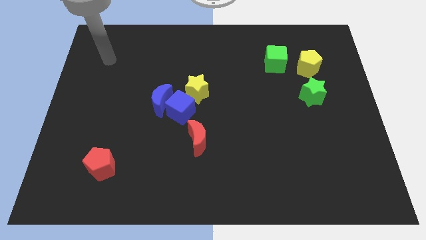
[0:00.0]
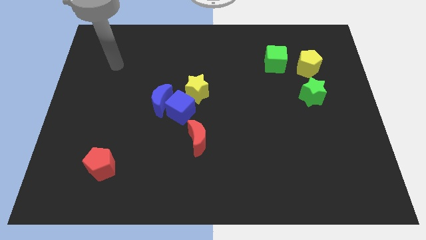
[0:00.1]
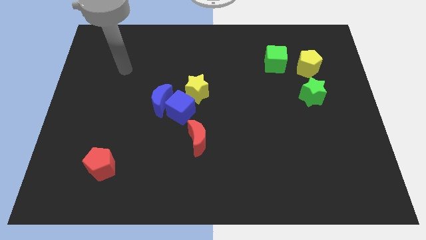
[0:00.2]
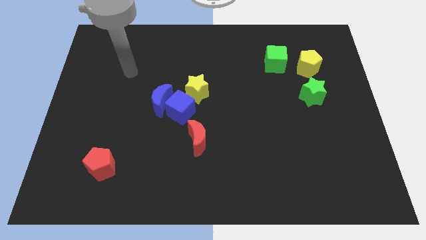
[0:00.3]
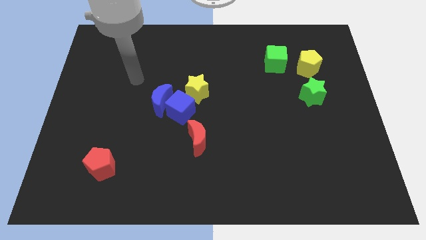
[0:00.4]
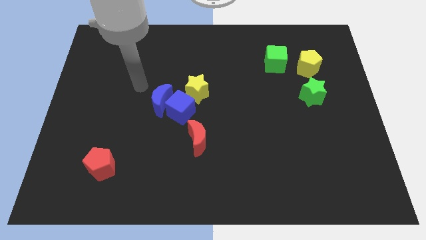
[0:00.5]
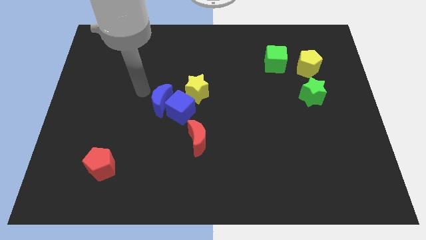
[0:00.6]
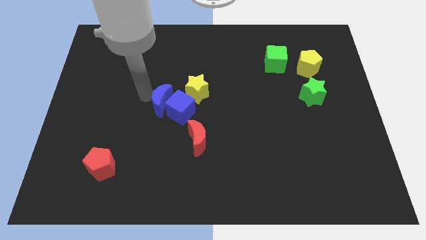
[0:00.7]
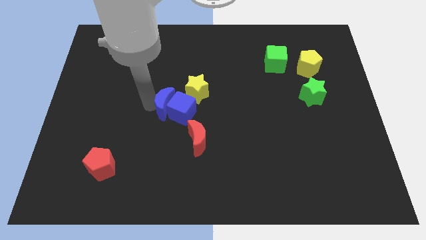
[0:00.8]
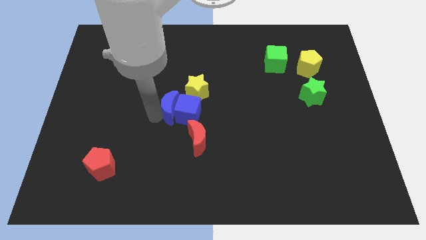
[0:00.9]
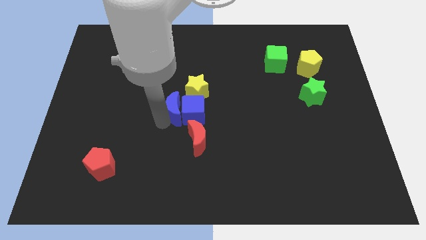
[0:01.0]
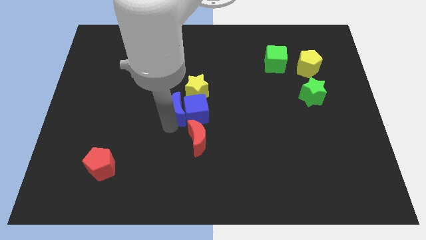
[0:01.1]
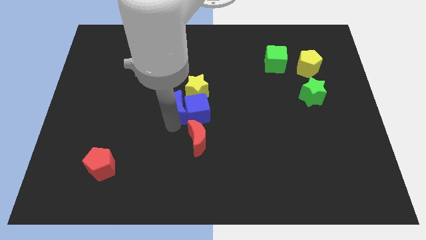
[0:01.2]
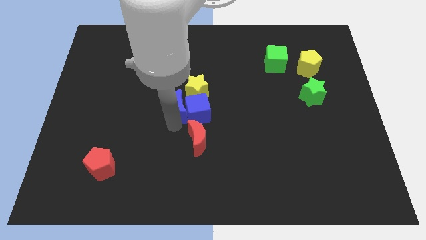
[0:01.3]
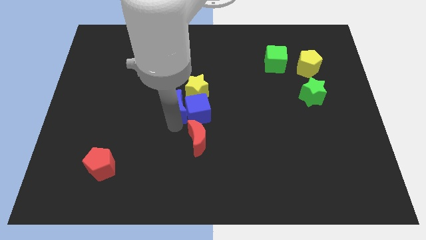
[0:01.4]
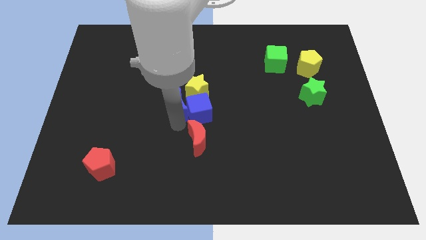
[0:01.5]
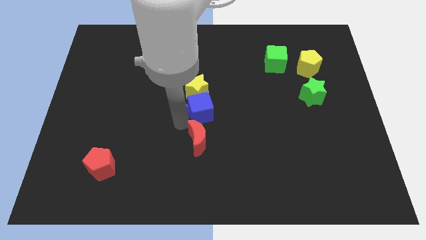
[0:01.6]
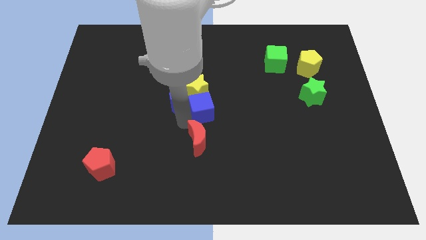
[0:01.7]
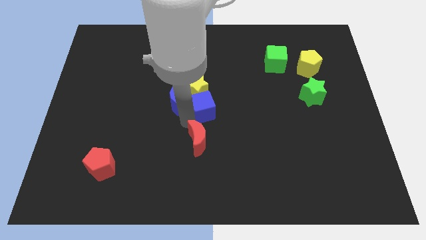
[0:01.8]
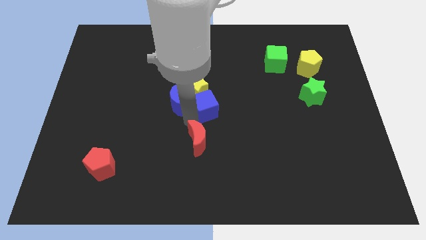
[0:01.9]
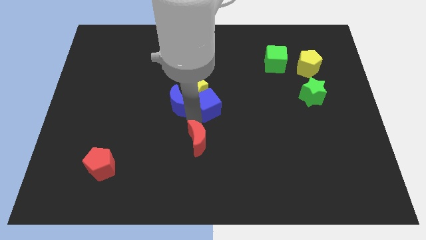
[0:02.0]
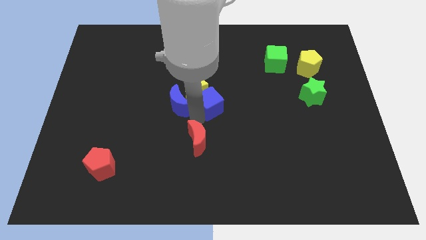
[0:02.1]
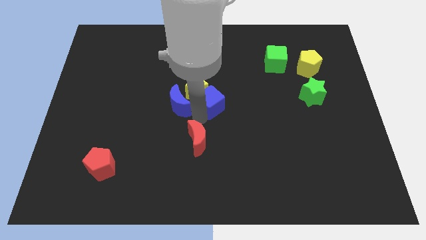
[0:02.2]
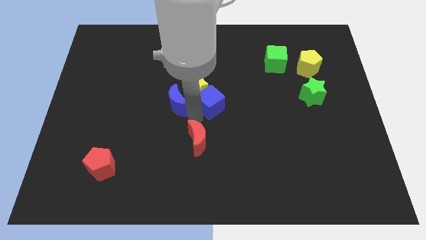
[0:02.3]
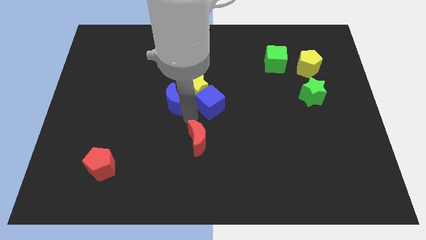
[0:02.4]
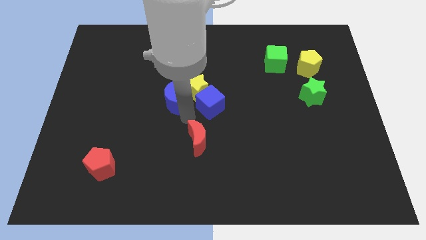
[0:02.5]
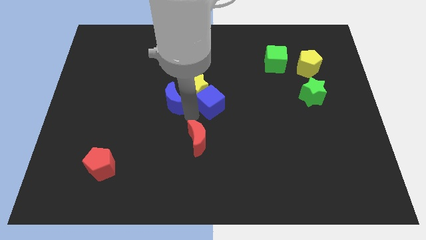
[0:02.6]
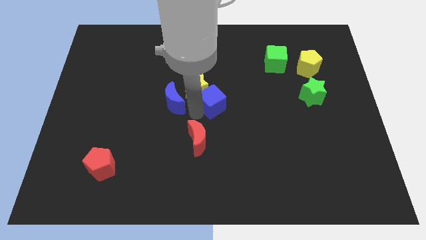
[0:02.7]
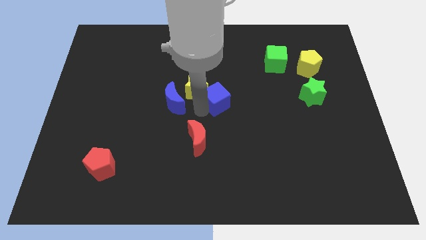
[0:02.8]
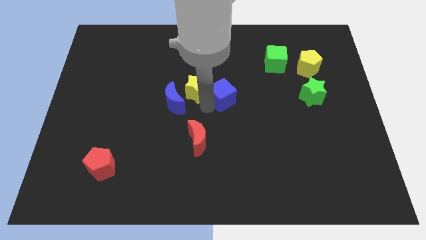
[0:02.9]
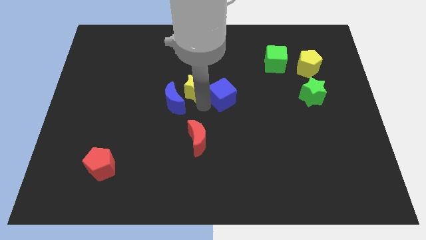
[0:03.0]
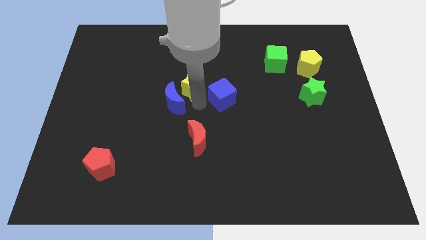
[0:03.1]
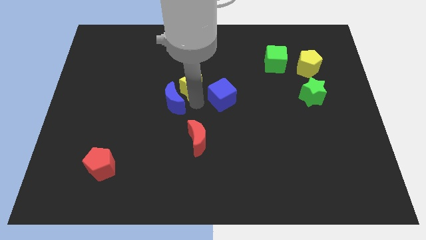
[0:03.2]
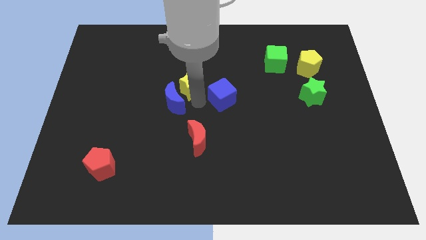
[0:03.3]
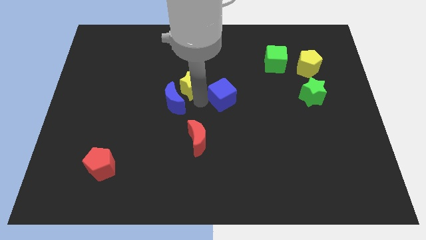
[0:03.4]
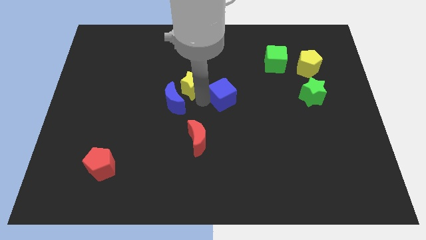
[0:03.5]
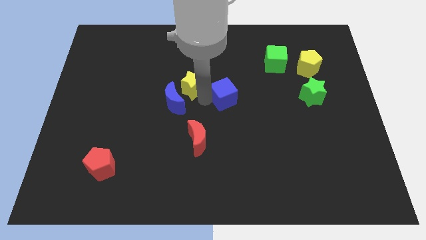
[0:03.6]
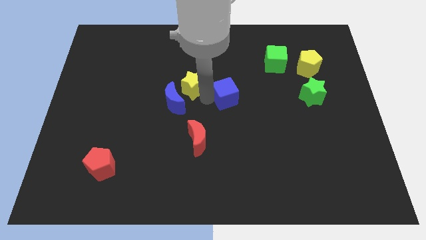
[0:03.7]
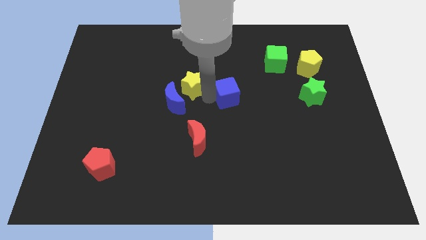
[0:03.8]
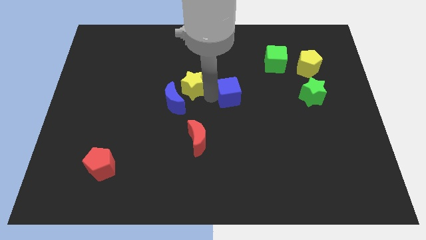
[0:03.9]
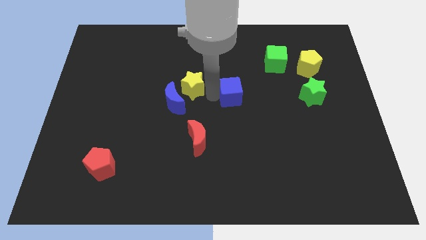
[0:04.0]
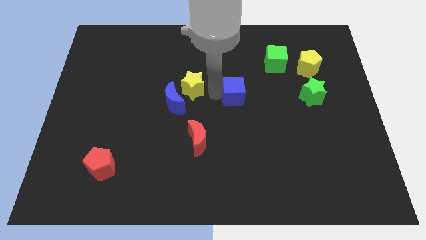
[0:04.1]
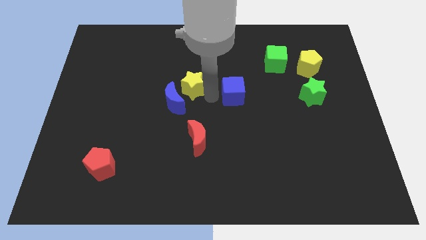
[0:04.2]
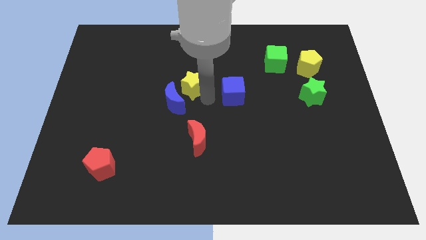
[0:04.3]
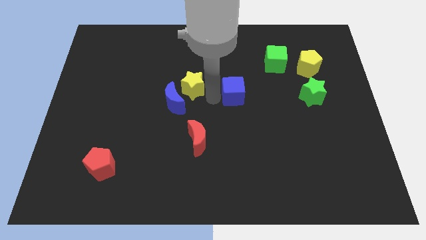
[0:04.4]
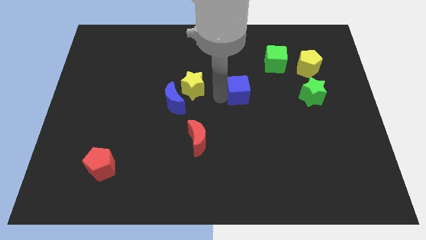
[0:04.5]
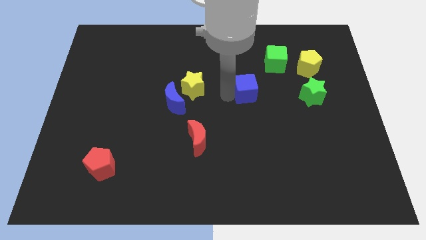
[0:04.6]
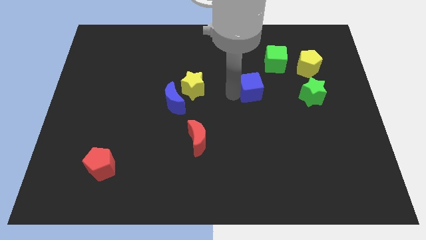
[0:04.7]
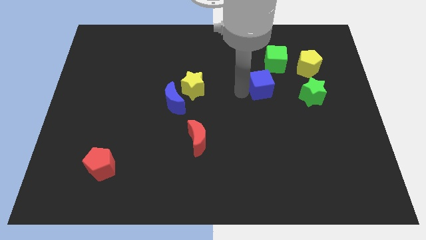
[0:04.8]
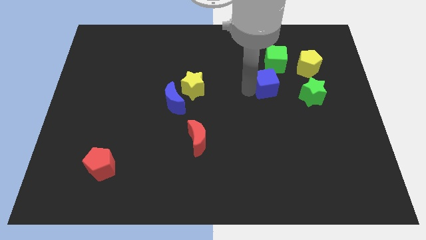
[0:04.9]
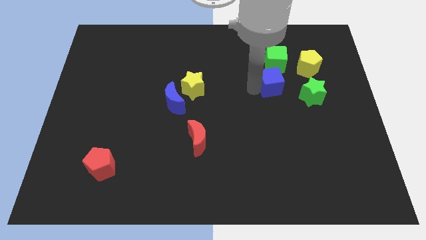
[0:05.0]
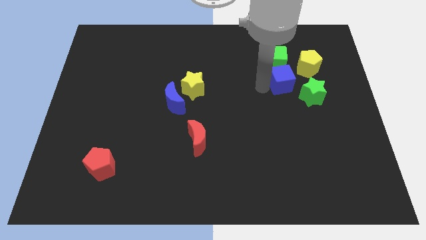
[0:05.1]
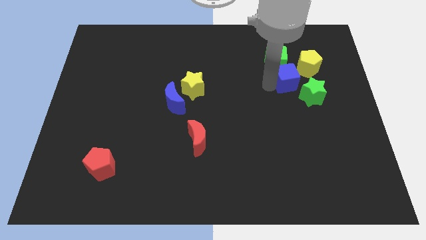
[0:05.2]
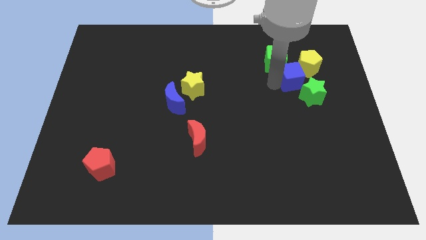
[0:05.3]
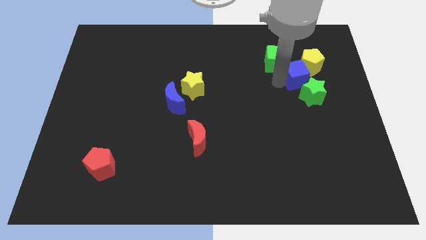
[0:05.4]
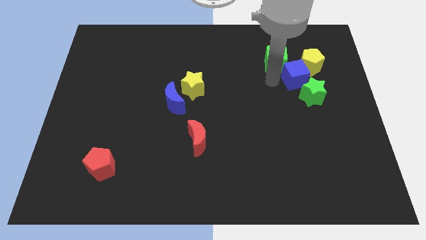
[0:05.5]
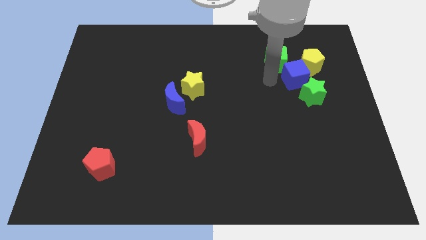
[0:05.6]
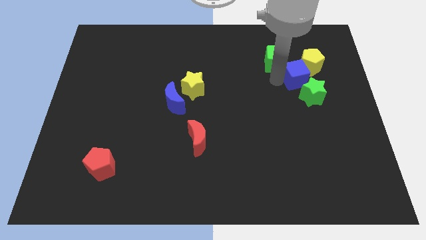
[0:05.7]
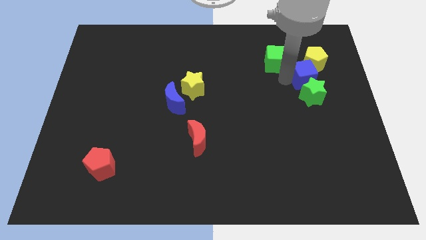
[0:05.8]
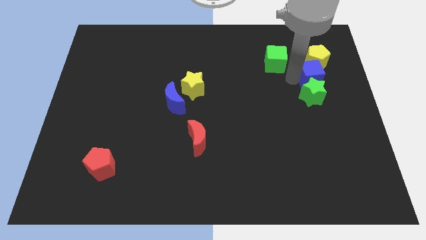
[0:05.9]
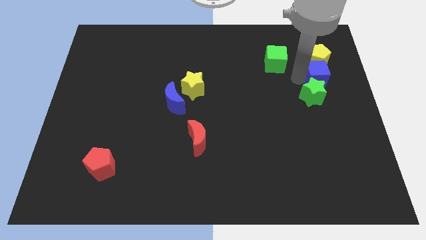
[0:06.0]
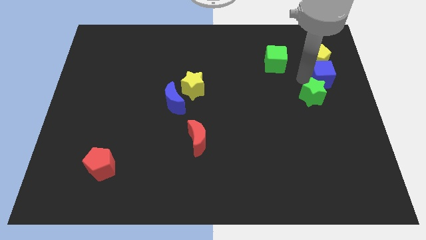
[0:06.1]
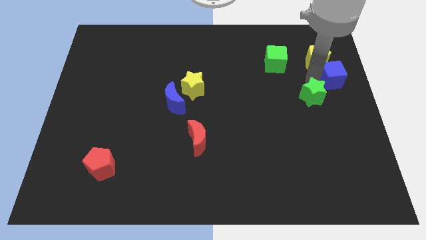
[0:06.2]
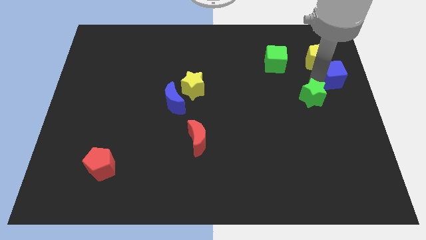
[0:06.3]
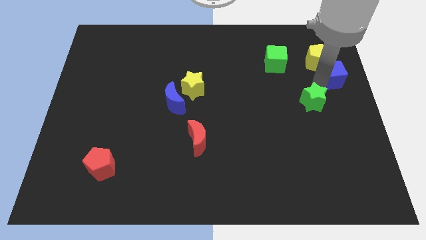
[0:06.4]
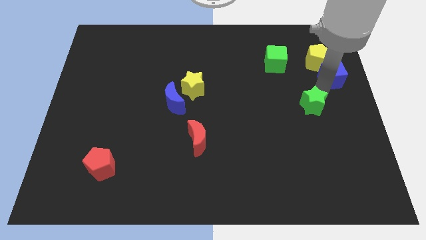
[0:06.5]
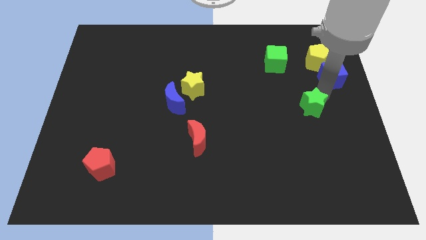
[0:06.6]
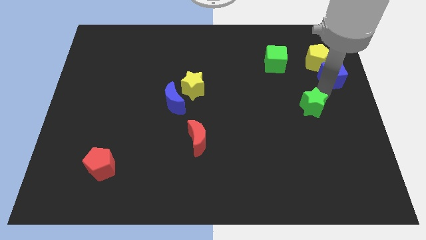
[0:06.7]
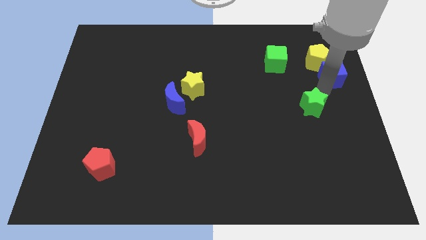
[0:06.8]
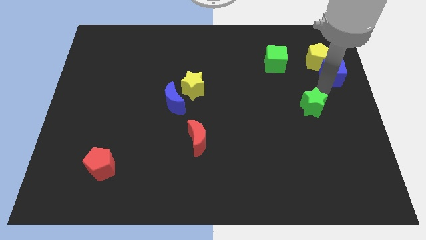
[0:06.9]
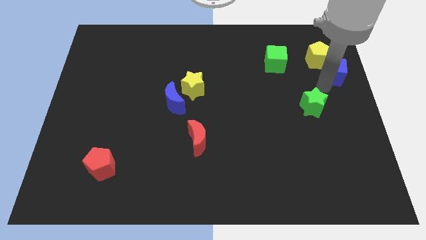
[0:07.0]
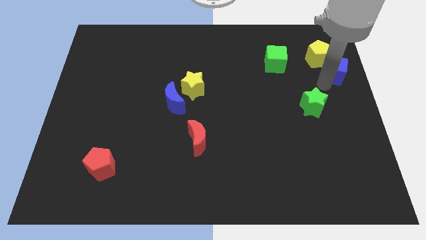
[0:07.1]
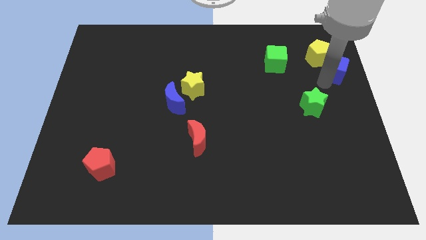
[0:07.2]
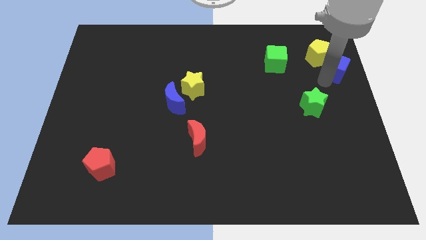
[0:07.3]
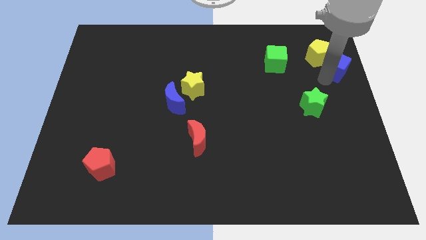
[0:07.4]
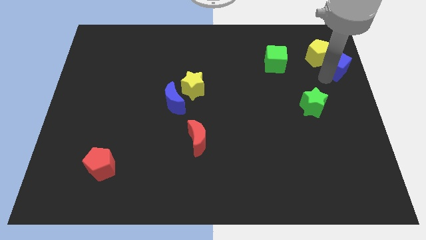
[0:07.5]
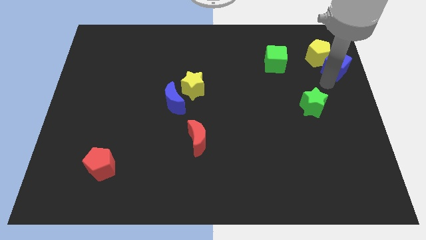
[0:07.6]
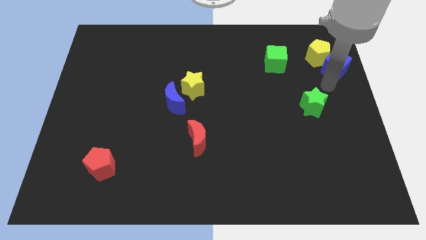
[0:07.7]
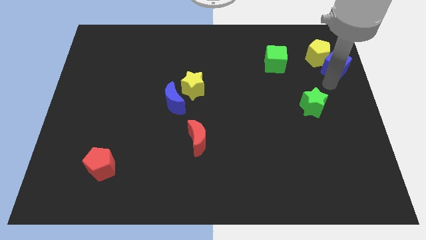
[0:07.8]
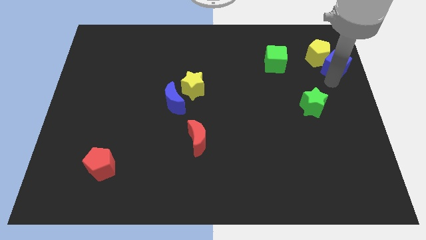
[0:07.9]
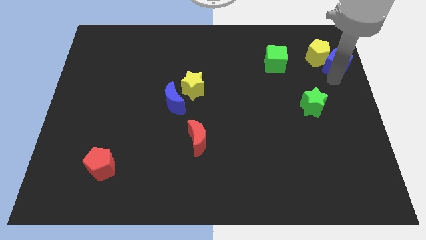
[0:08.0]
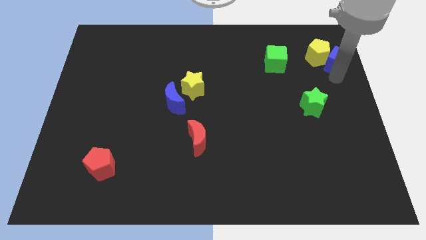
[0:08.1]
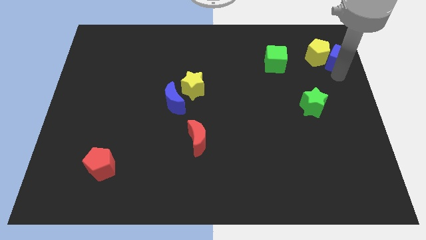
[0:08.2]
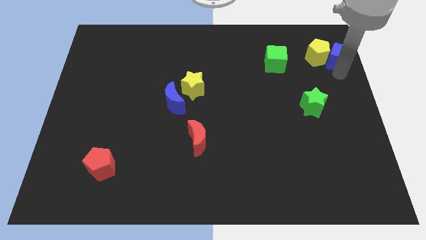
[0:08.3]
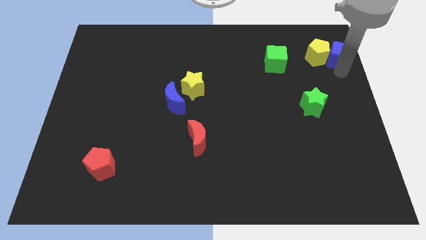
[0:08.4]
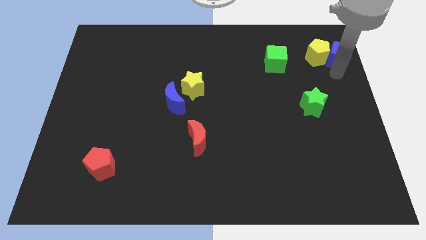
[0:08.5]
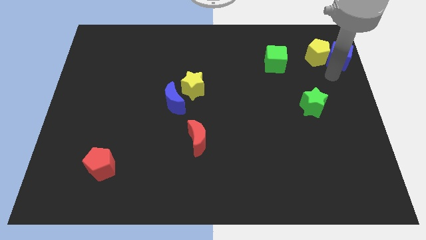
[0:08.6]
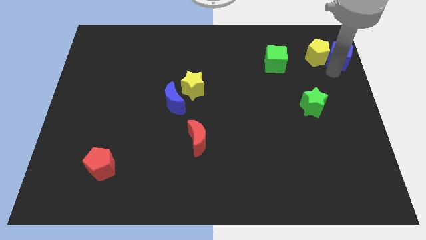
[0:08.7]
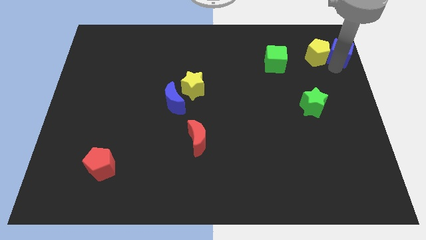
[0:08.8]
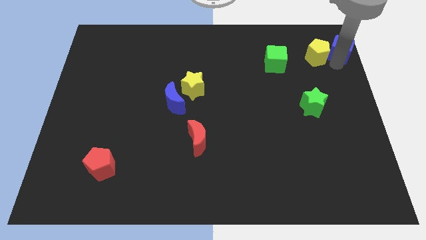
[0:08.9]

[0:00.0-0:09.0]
move the blue cube to the top right corner
